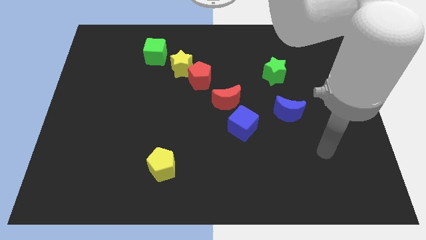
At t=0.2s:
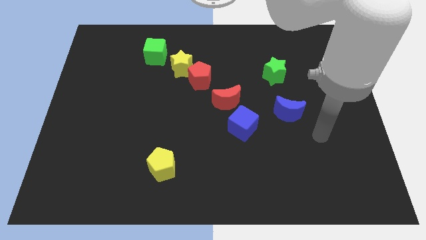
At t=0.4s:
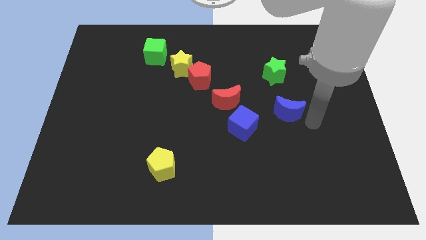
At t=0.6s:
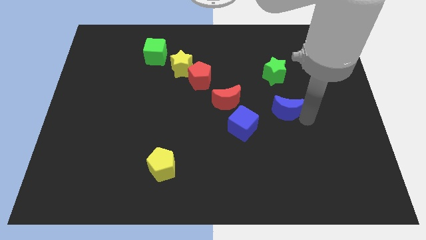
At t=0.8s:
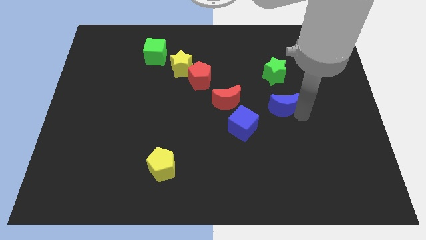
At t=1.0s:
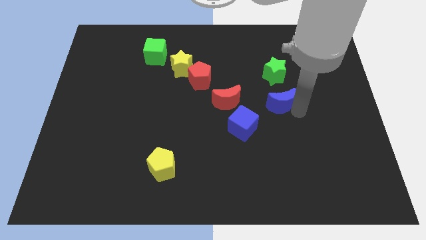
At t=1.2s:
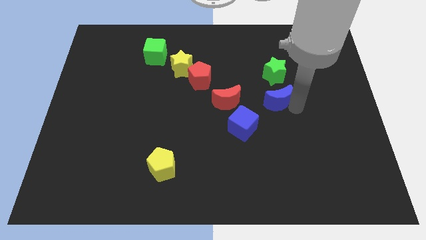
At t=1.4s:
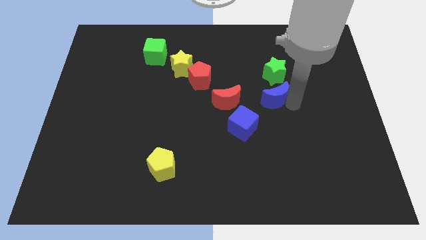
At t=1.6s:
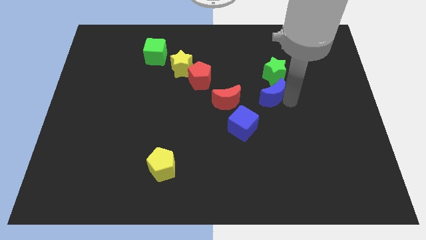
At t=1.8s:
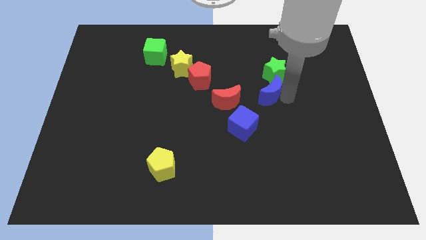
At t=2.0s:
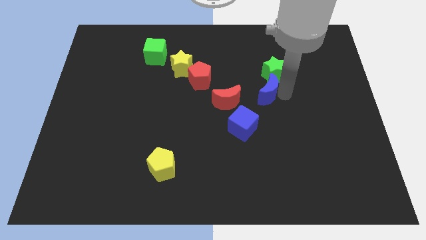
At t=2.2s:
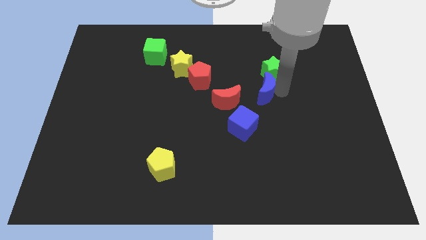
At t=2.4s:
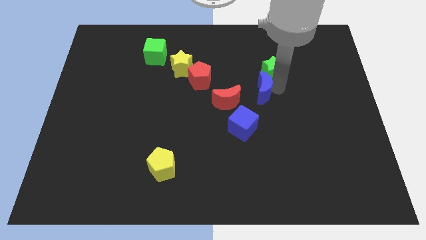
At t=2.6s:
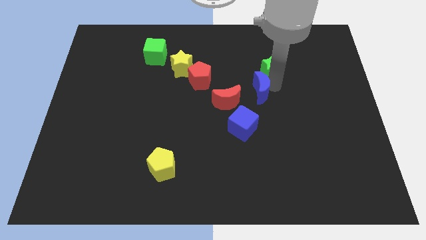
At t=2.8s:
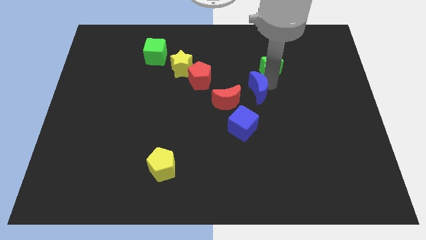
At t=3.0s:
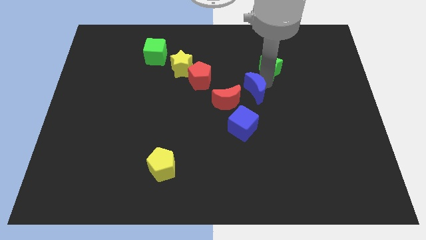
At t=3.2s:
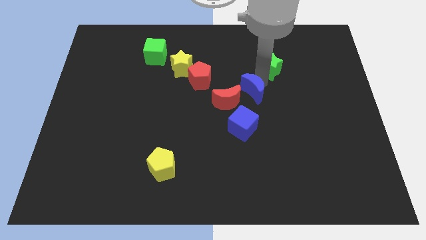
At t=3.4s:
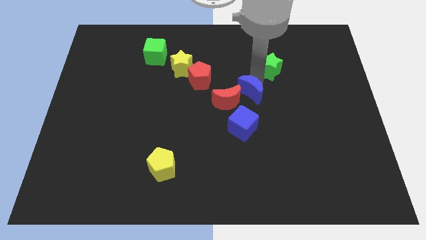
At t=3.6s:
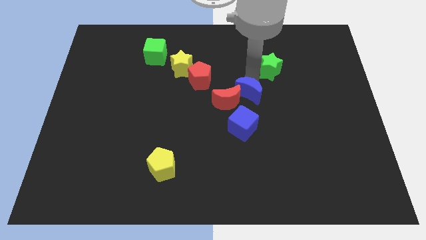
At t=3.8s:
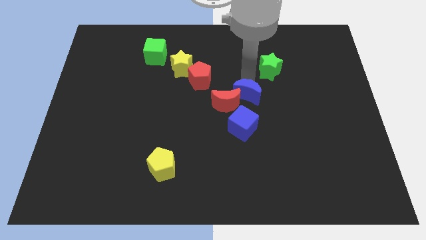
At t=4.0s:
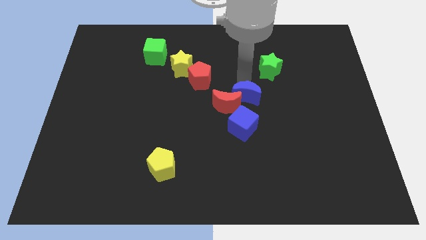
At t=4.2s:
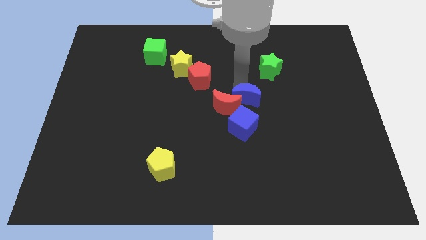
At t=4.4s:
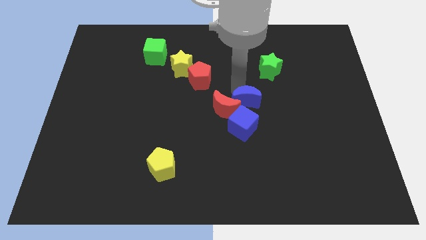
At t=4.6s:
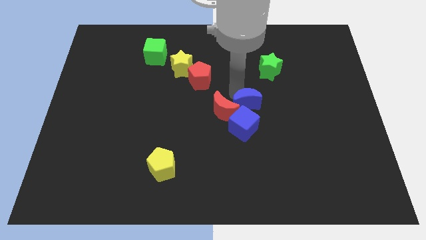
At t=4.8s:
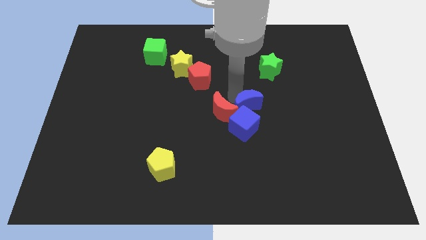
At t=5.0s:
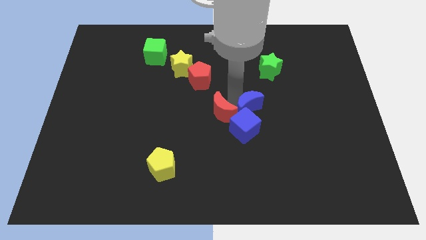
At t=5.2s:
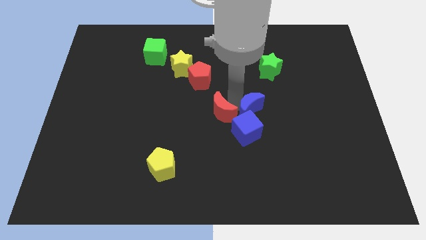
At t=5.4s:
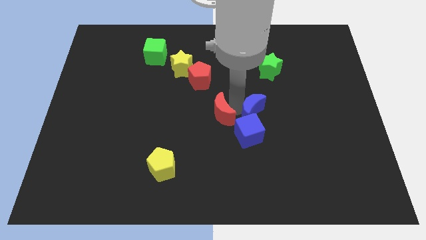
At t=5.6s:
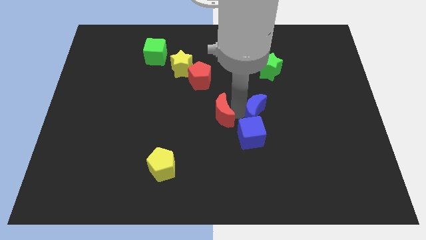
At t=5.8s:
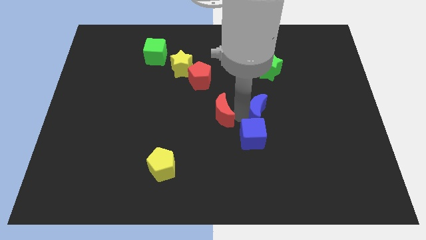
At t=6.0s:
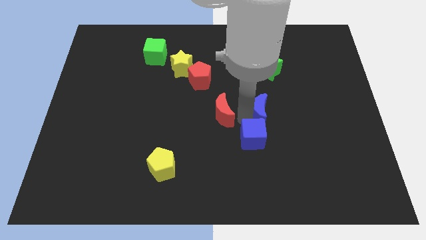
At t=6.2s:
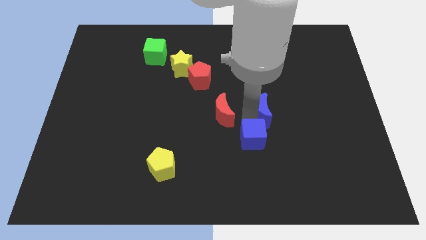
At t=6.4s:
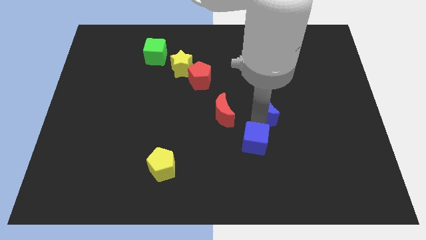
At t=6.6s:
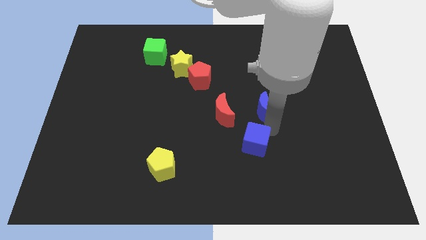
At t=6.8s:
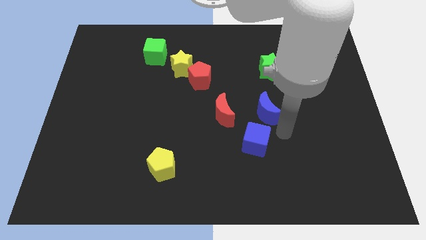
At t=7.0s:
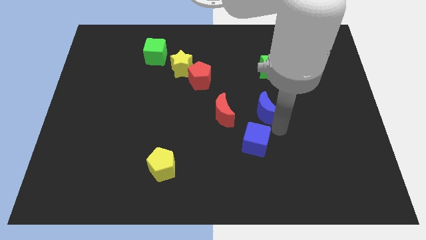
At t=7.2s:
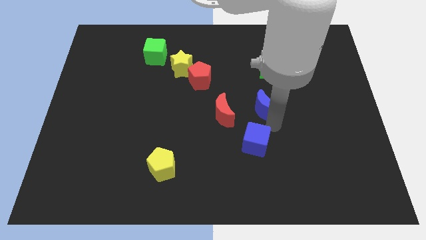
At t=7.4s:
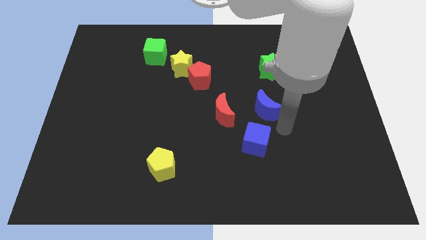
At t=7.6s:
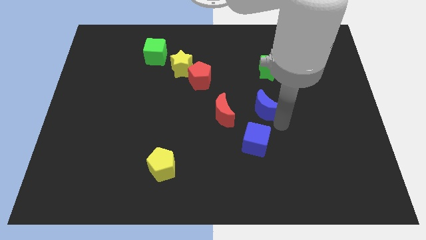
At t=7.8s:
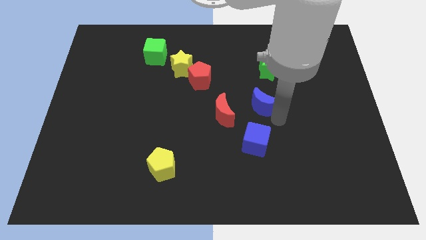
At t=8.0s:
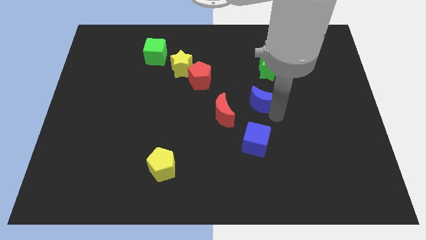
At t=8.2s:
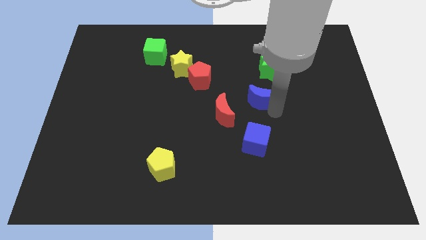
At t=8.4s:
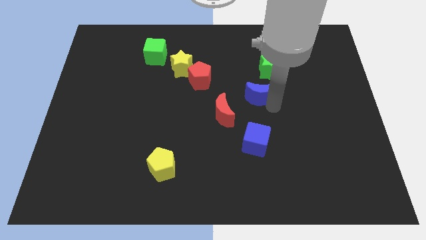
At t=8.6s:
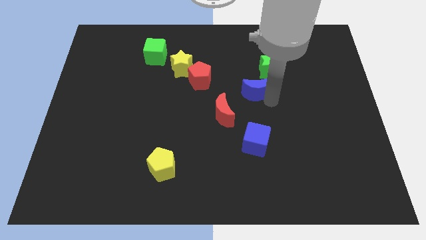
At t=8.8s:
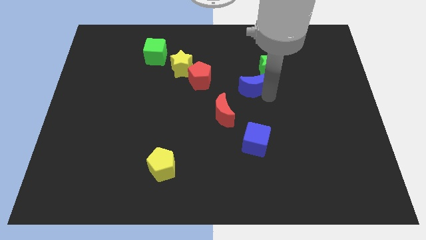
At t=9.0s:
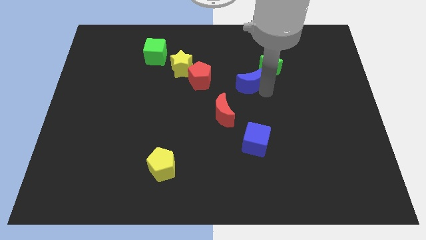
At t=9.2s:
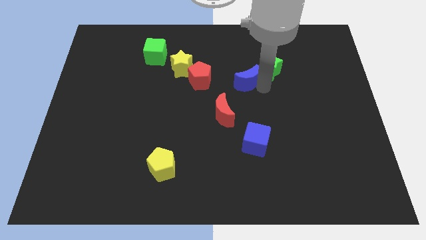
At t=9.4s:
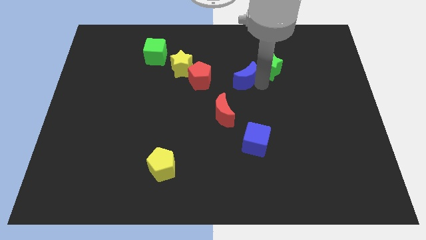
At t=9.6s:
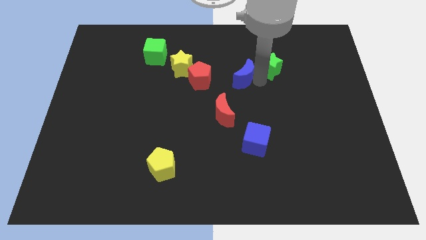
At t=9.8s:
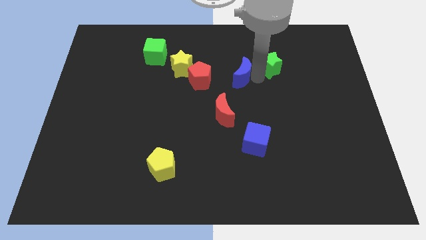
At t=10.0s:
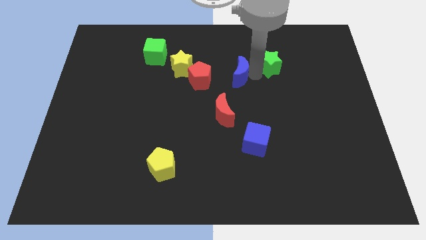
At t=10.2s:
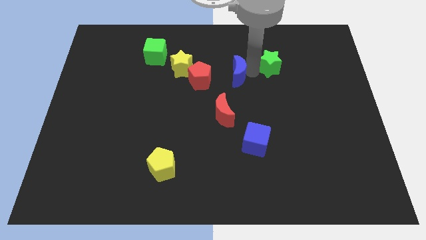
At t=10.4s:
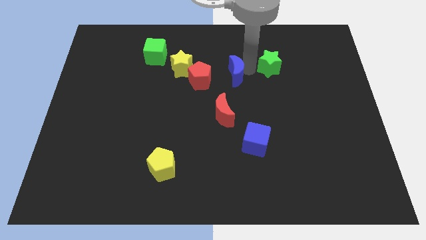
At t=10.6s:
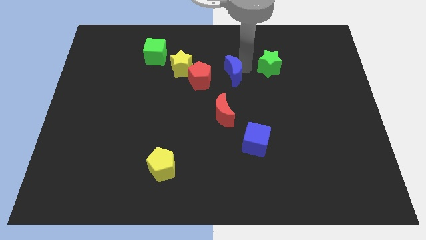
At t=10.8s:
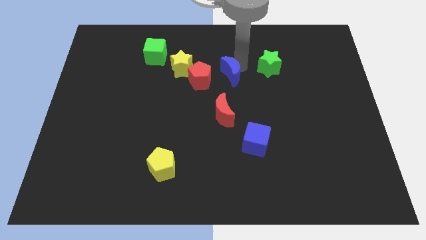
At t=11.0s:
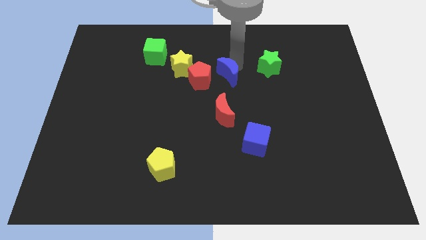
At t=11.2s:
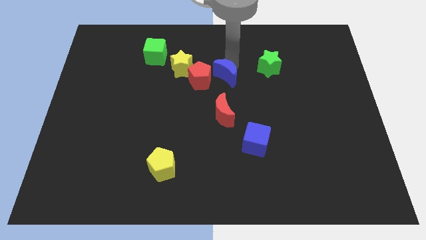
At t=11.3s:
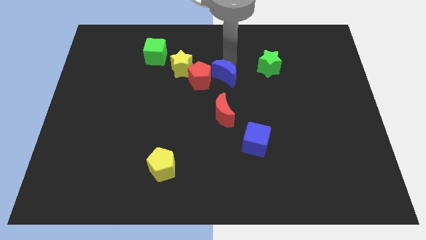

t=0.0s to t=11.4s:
push the blue moon next to the red pentagon

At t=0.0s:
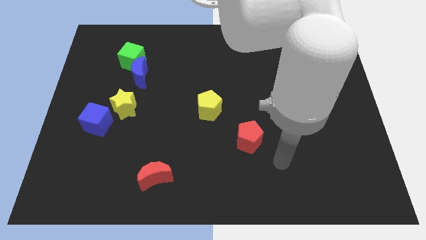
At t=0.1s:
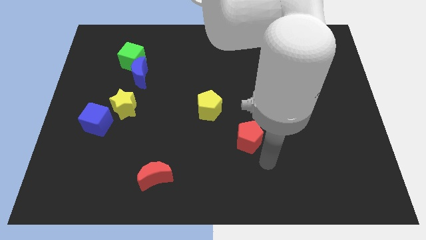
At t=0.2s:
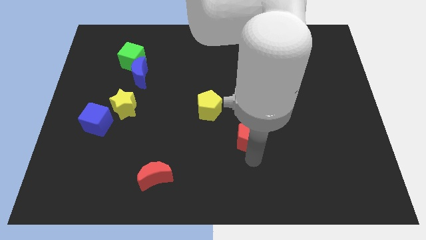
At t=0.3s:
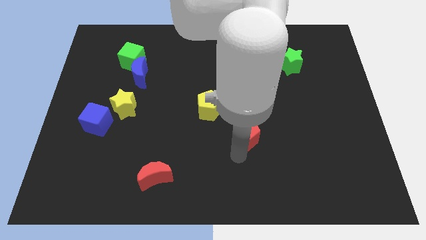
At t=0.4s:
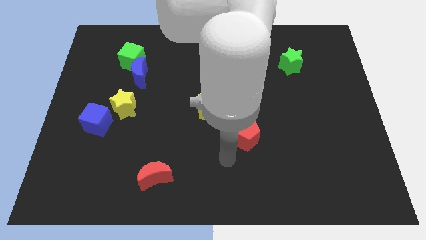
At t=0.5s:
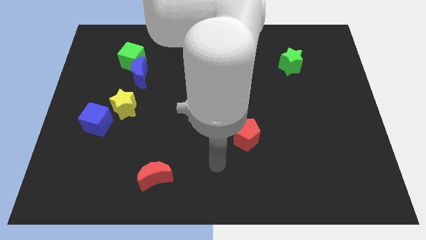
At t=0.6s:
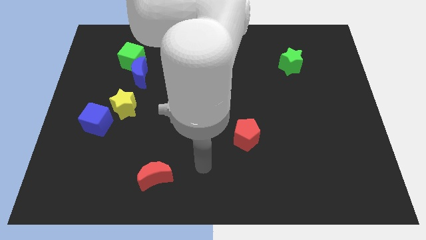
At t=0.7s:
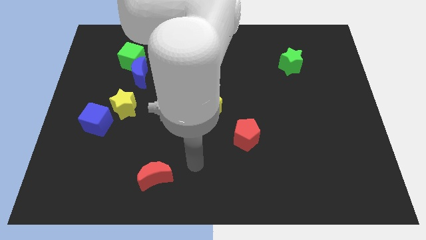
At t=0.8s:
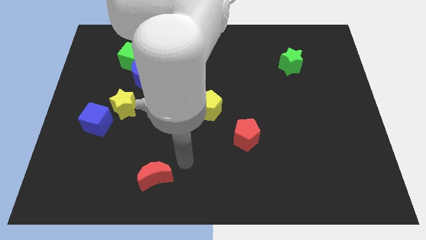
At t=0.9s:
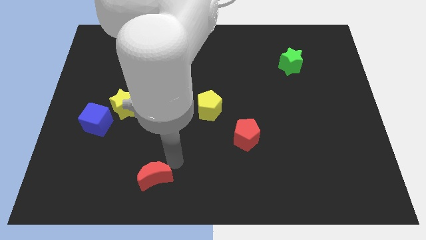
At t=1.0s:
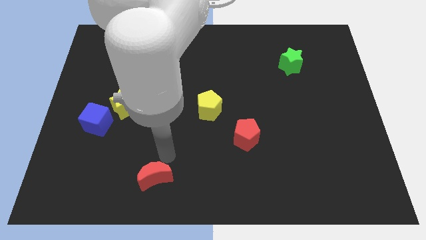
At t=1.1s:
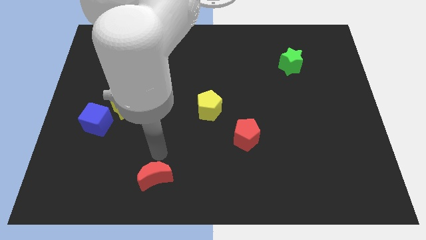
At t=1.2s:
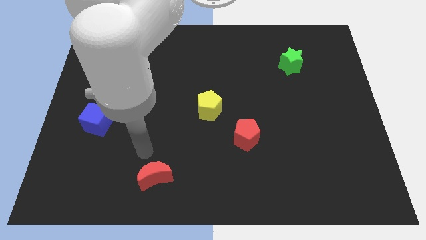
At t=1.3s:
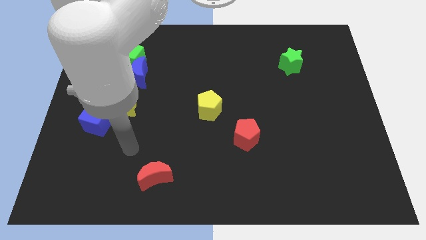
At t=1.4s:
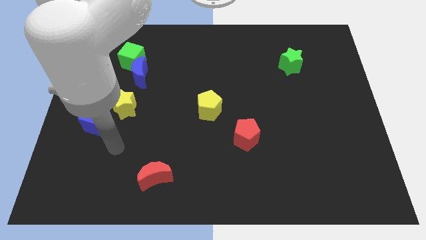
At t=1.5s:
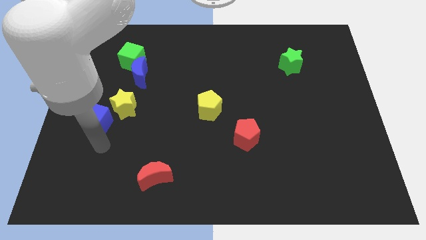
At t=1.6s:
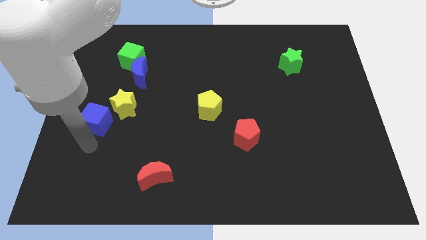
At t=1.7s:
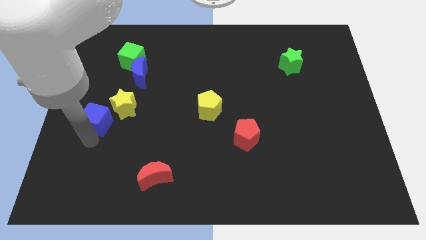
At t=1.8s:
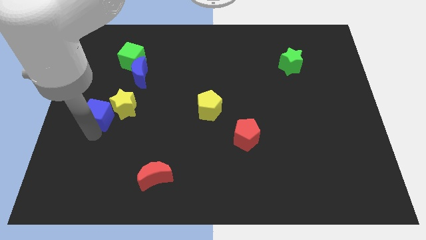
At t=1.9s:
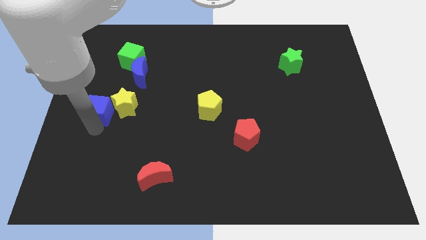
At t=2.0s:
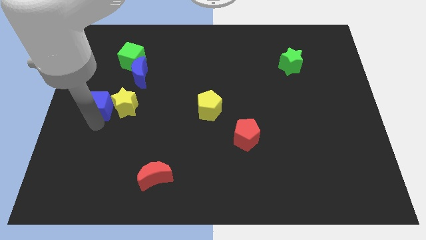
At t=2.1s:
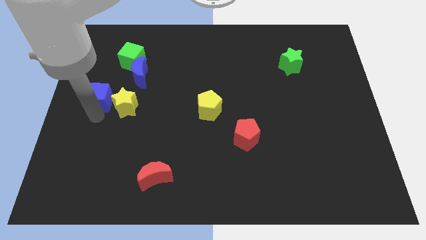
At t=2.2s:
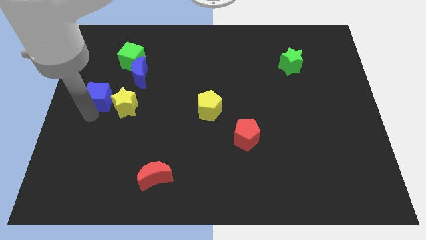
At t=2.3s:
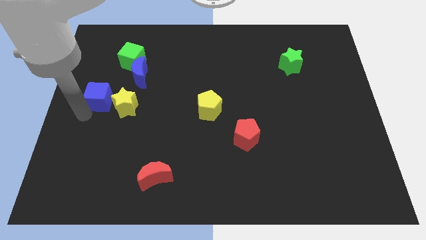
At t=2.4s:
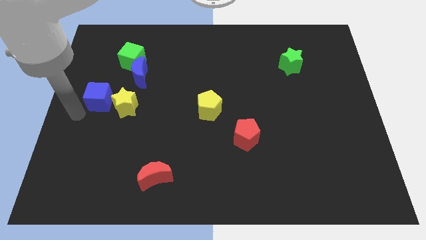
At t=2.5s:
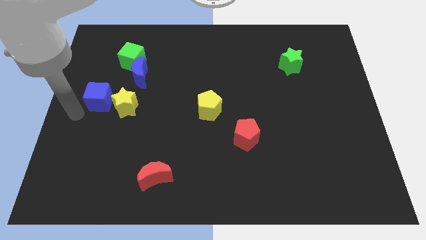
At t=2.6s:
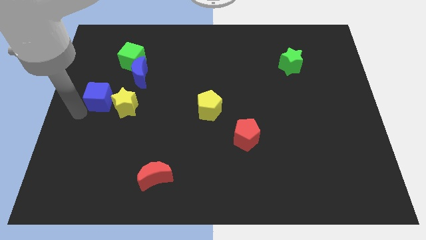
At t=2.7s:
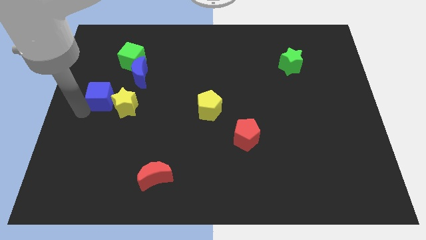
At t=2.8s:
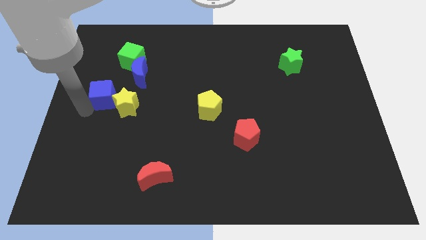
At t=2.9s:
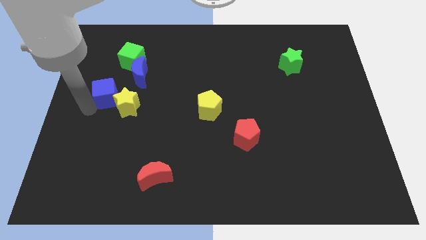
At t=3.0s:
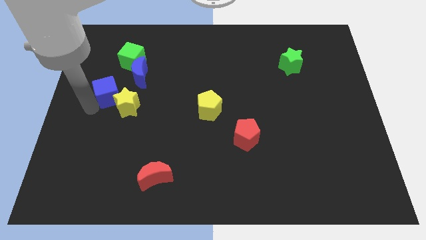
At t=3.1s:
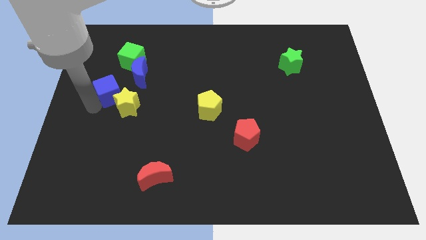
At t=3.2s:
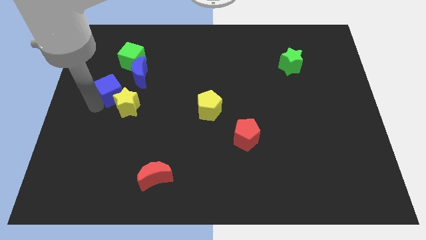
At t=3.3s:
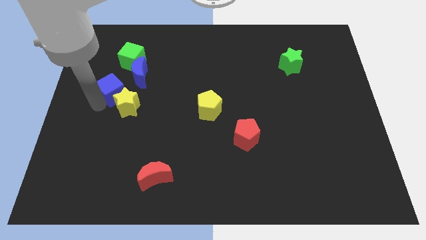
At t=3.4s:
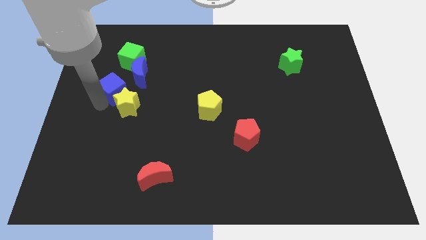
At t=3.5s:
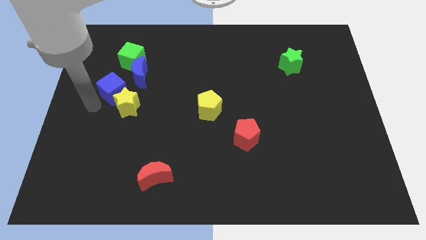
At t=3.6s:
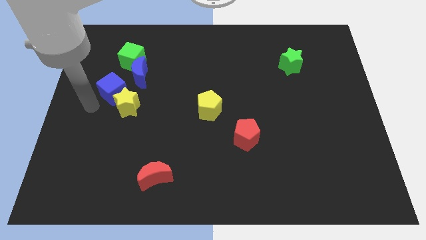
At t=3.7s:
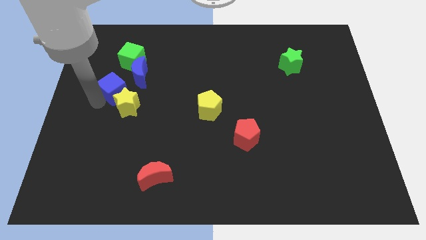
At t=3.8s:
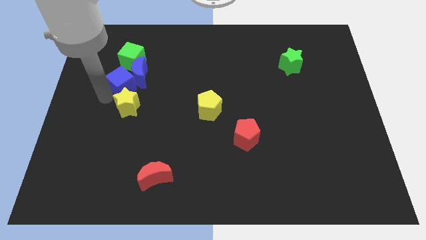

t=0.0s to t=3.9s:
move the blue cube next to the blue moon
